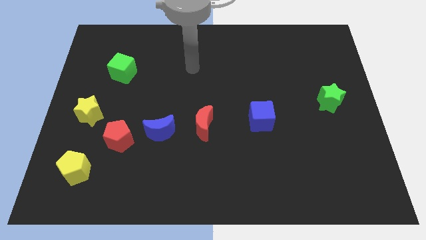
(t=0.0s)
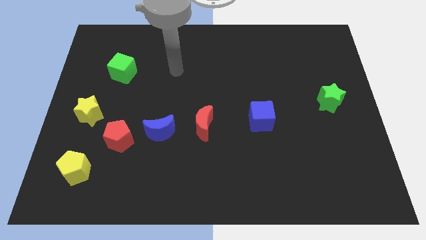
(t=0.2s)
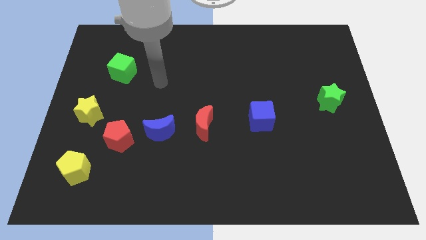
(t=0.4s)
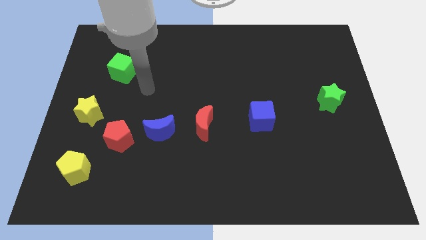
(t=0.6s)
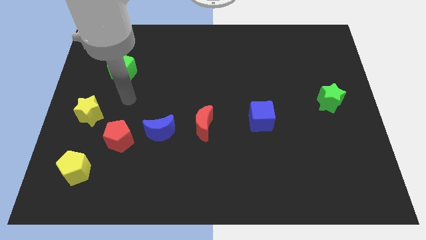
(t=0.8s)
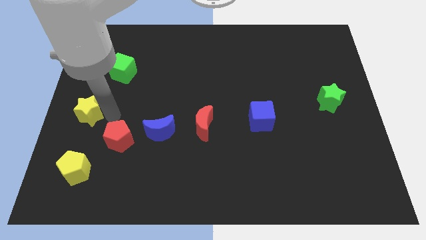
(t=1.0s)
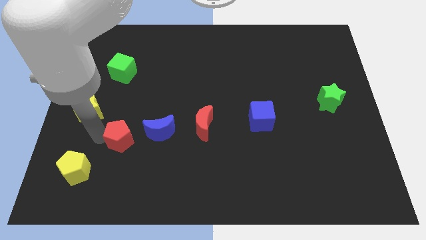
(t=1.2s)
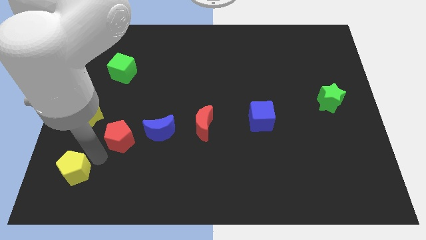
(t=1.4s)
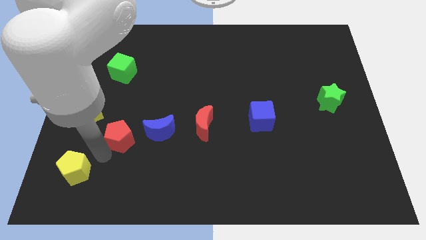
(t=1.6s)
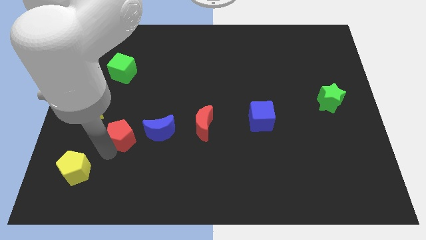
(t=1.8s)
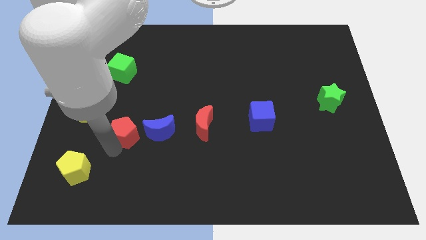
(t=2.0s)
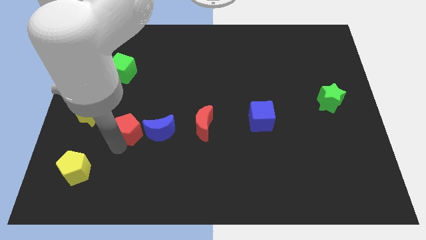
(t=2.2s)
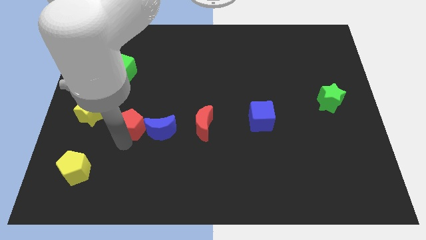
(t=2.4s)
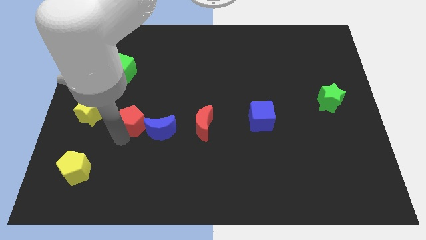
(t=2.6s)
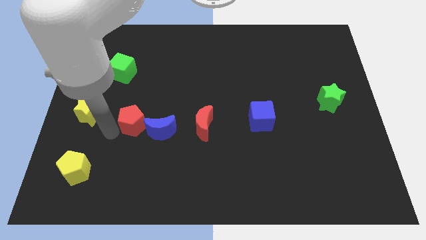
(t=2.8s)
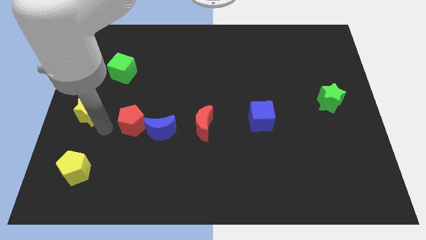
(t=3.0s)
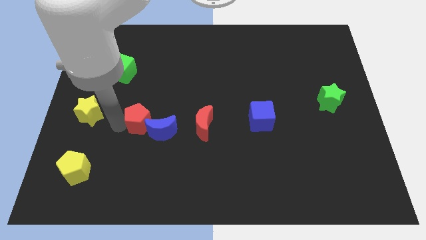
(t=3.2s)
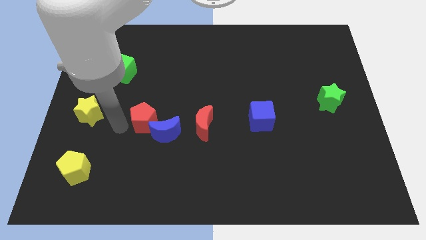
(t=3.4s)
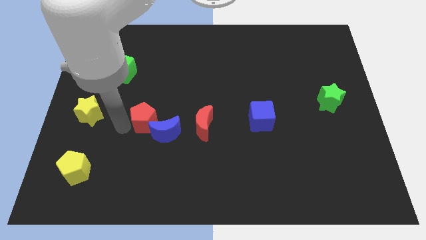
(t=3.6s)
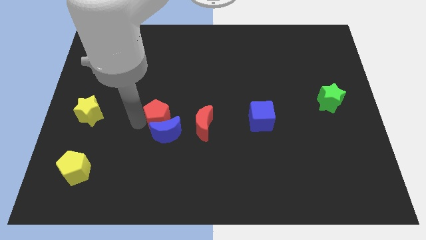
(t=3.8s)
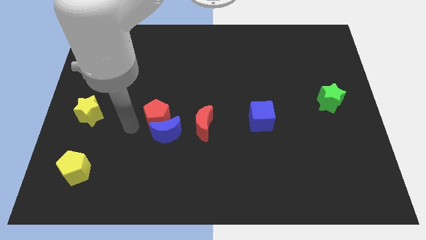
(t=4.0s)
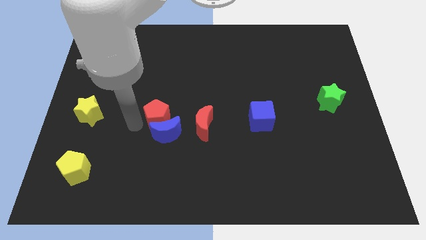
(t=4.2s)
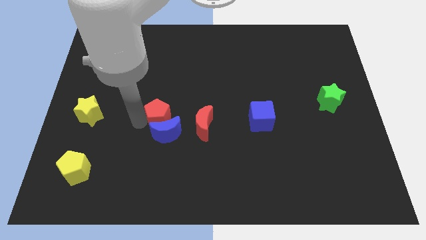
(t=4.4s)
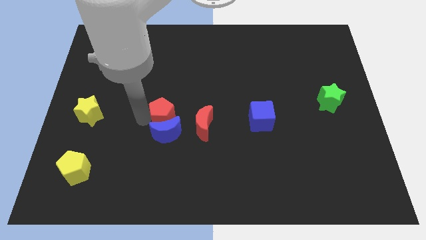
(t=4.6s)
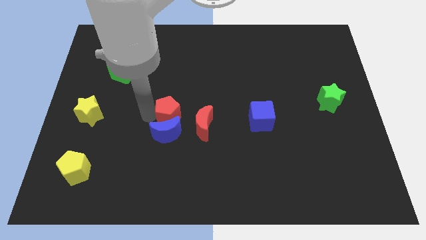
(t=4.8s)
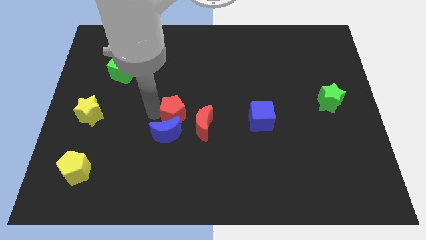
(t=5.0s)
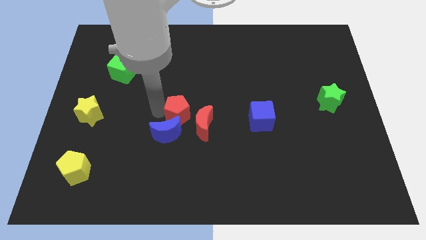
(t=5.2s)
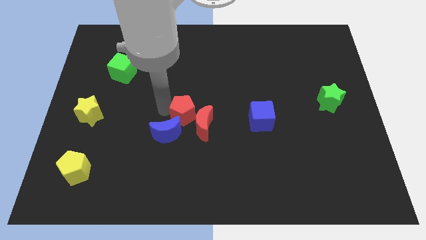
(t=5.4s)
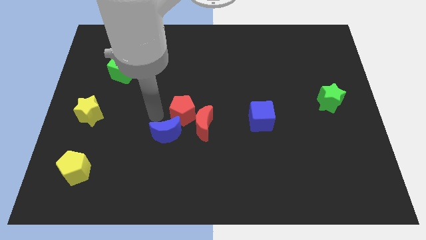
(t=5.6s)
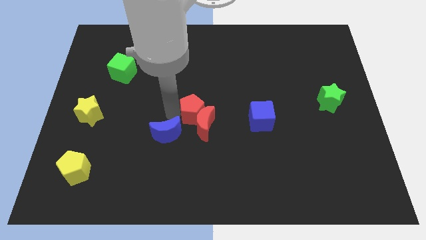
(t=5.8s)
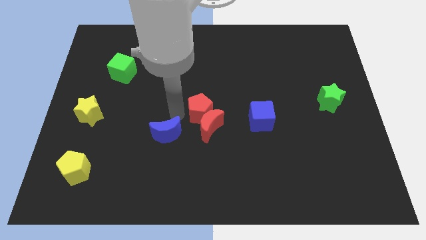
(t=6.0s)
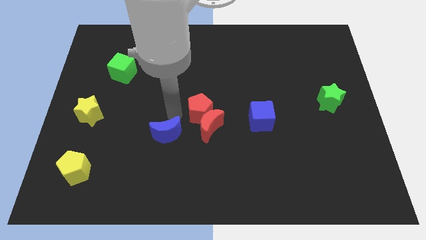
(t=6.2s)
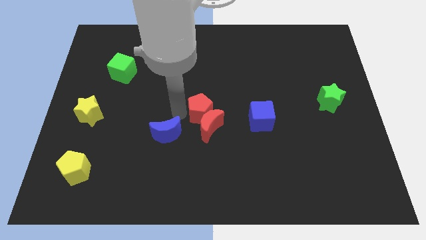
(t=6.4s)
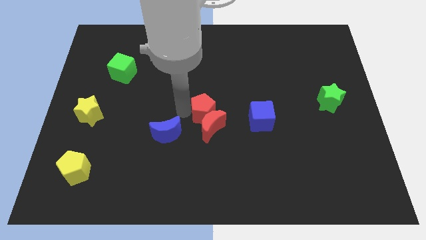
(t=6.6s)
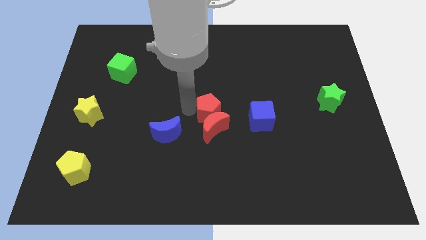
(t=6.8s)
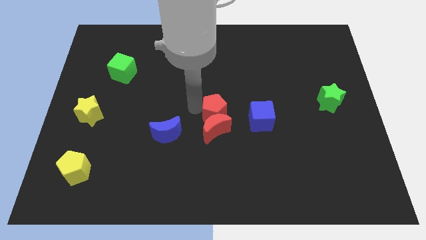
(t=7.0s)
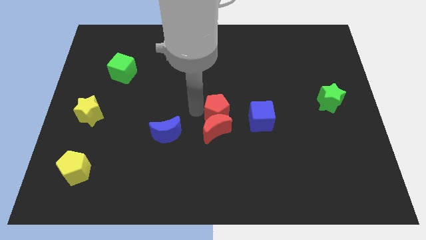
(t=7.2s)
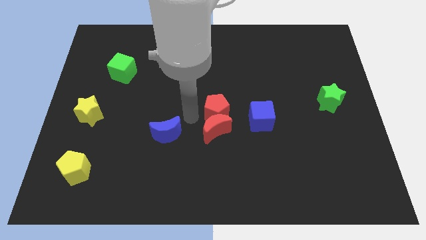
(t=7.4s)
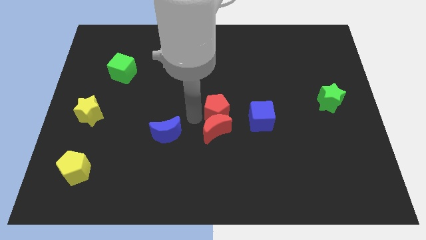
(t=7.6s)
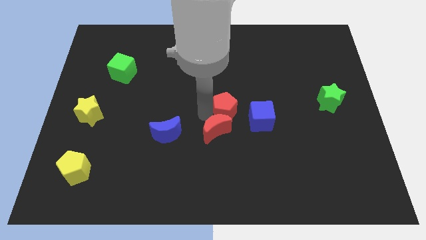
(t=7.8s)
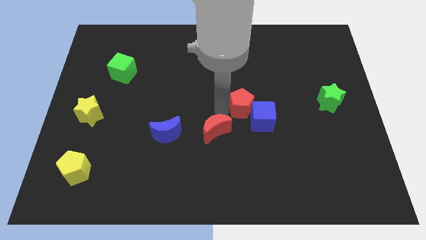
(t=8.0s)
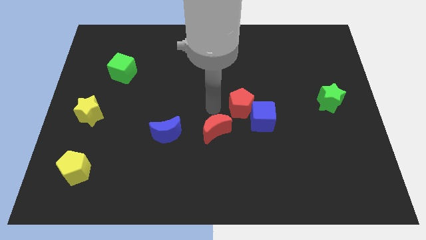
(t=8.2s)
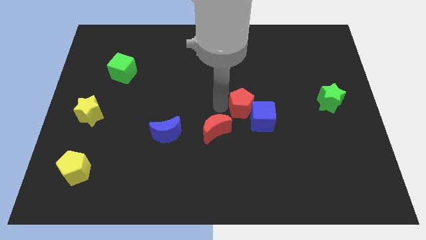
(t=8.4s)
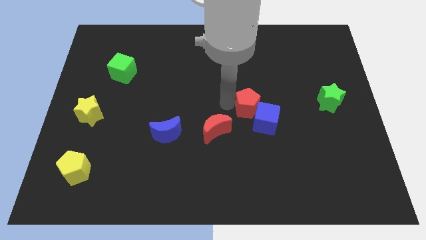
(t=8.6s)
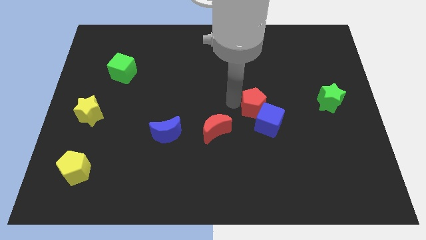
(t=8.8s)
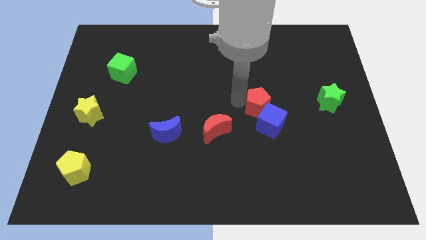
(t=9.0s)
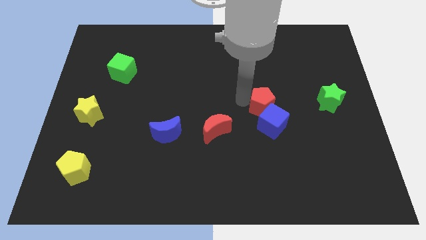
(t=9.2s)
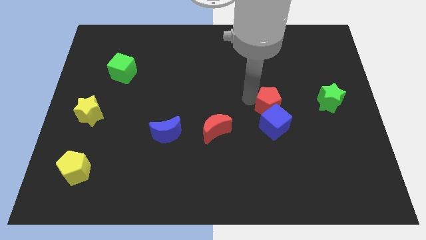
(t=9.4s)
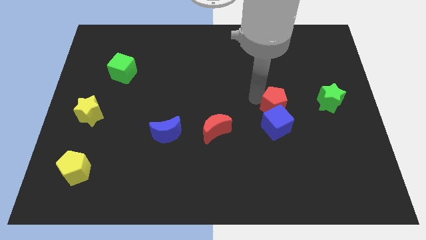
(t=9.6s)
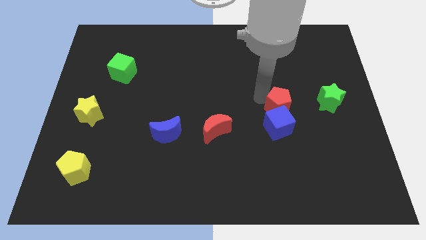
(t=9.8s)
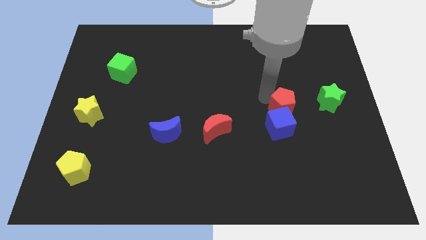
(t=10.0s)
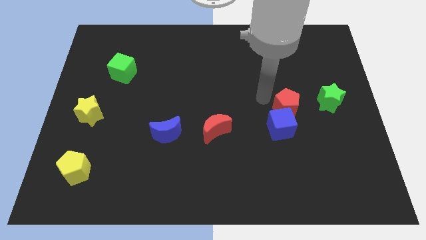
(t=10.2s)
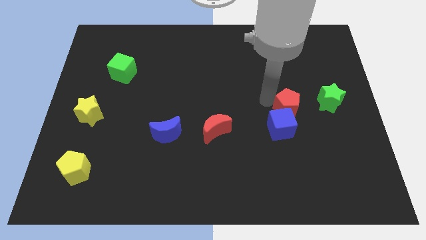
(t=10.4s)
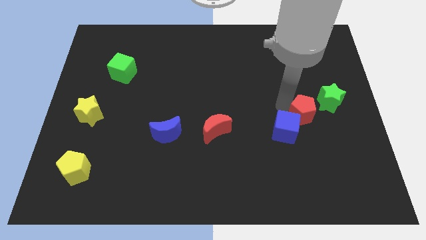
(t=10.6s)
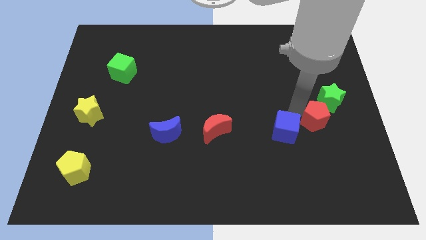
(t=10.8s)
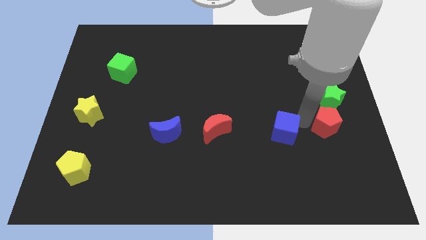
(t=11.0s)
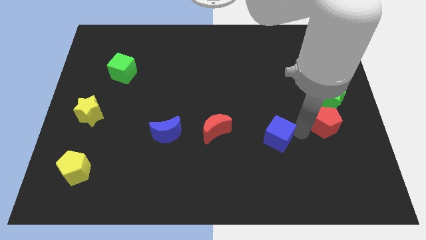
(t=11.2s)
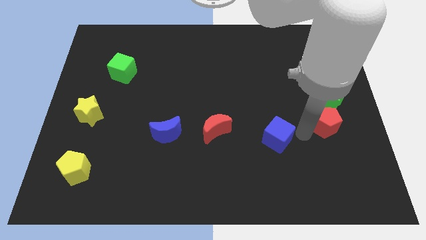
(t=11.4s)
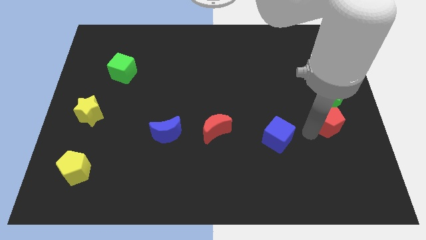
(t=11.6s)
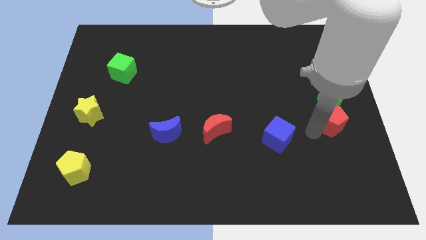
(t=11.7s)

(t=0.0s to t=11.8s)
move the red pentagon to the center right
